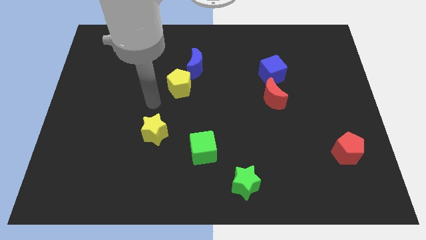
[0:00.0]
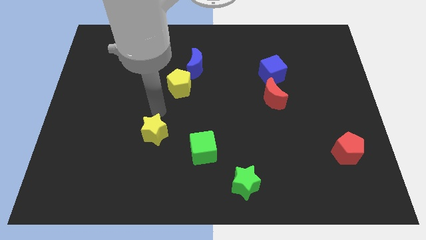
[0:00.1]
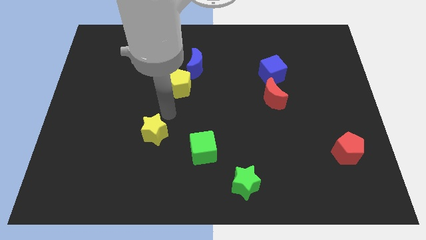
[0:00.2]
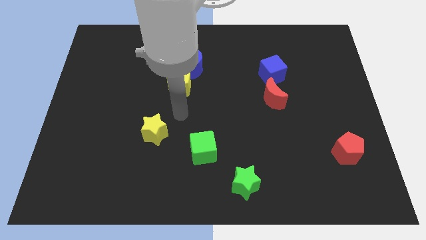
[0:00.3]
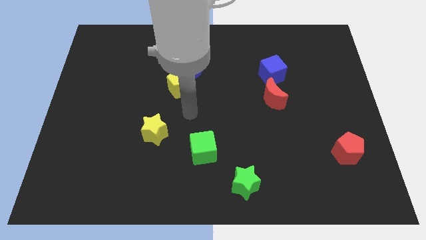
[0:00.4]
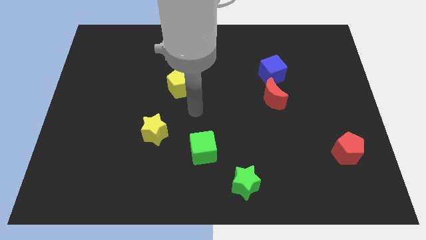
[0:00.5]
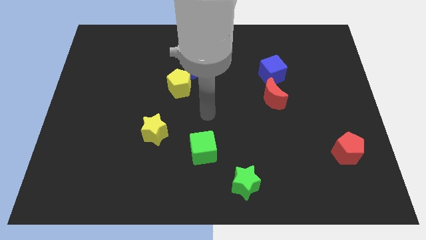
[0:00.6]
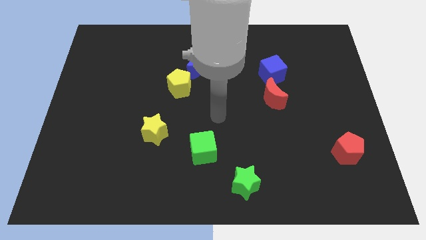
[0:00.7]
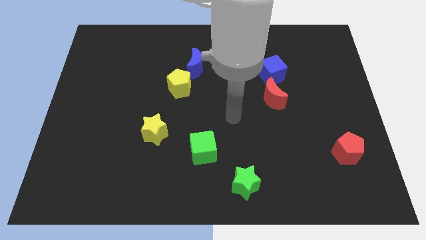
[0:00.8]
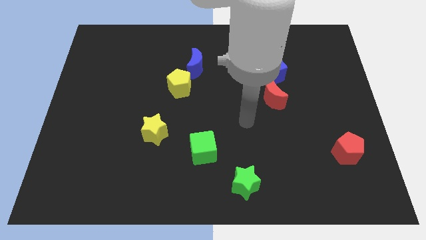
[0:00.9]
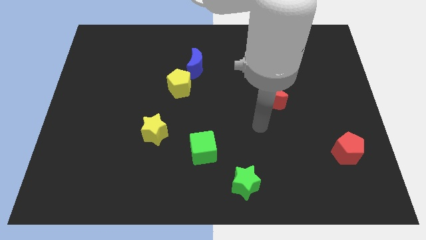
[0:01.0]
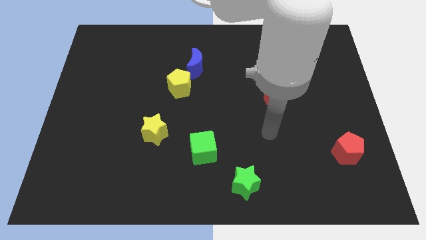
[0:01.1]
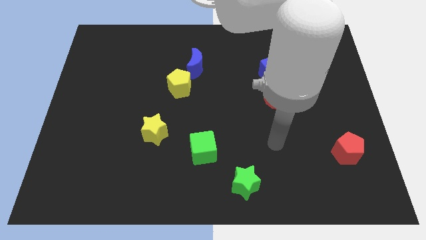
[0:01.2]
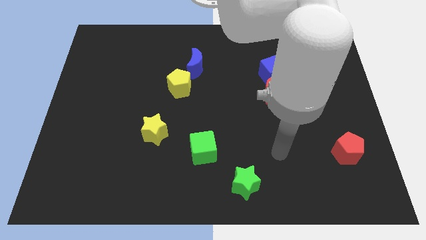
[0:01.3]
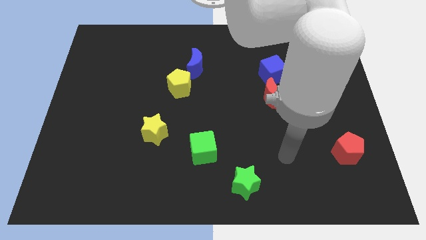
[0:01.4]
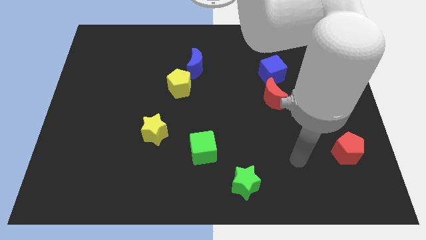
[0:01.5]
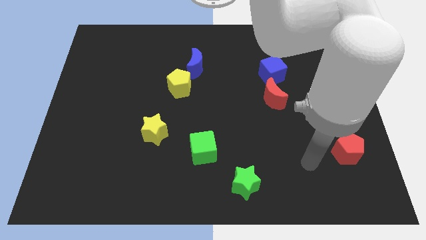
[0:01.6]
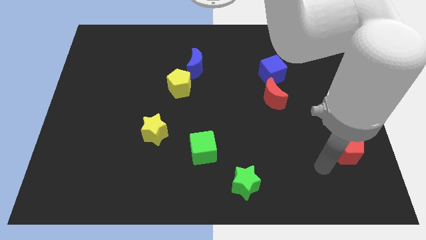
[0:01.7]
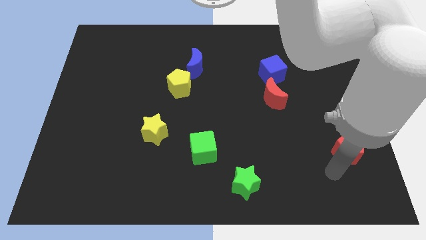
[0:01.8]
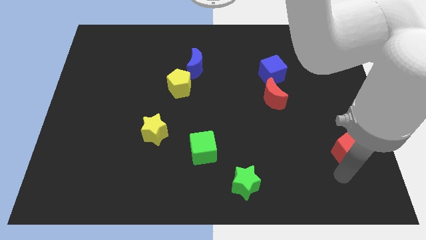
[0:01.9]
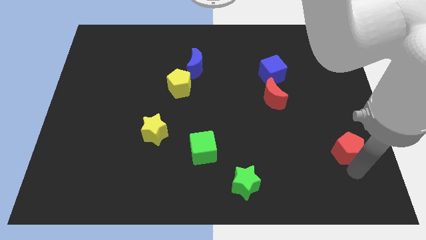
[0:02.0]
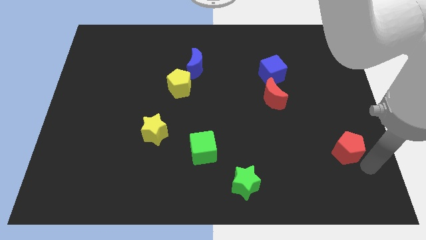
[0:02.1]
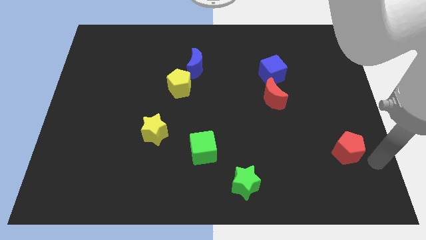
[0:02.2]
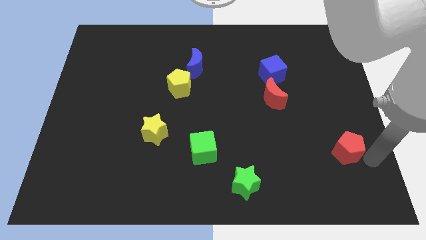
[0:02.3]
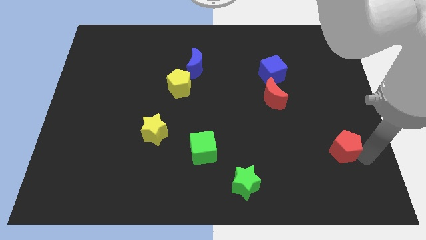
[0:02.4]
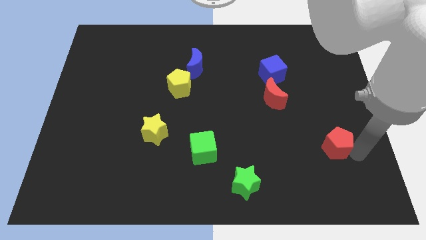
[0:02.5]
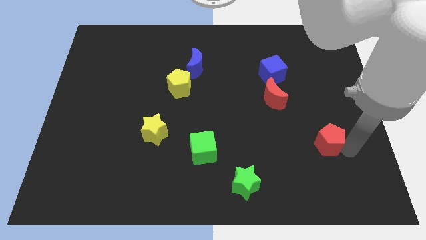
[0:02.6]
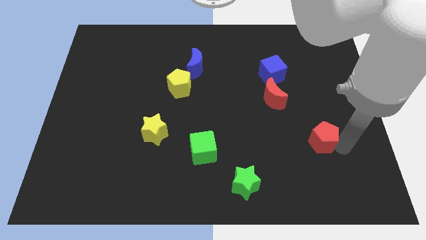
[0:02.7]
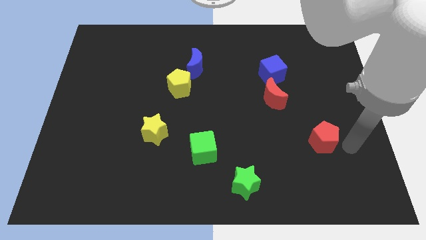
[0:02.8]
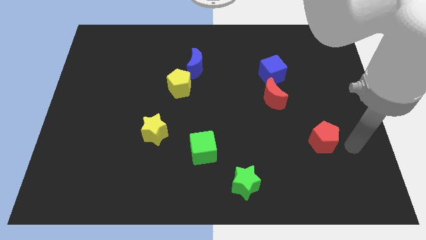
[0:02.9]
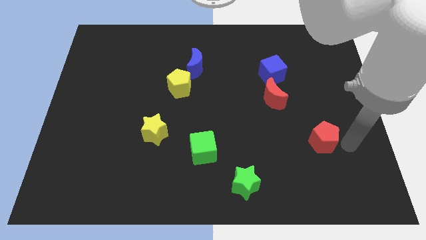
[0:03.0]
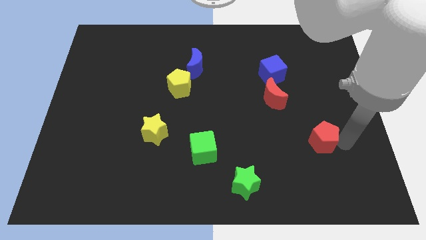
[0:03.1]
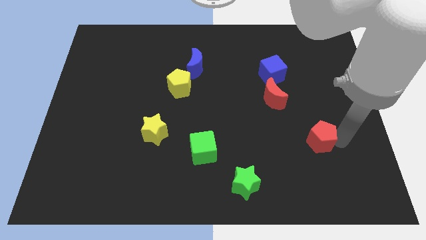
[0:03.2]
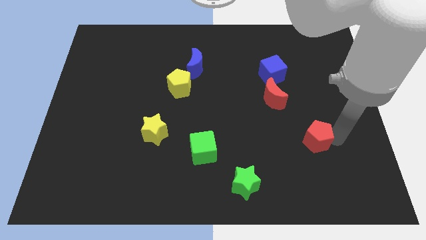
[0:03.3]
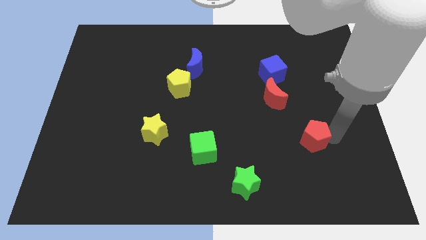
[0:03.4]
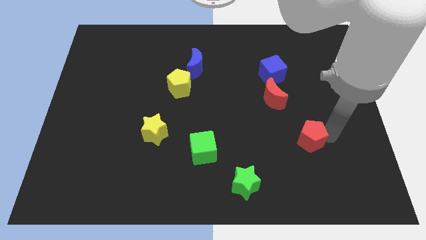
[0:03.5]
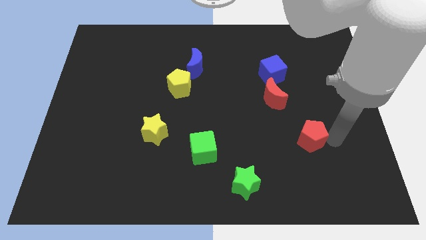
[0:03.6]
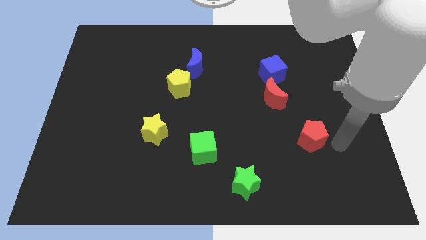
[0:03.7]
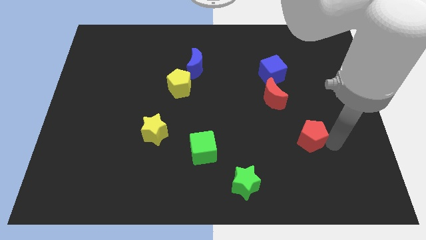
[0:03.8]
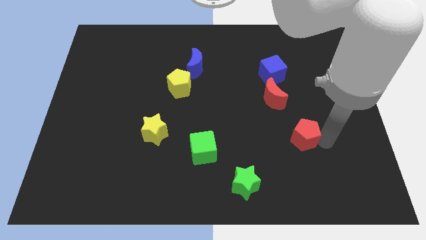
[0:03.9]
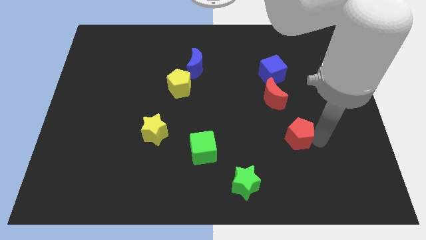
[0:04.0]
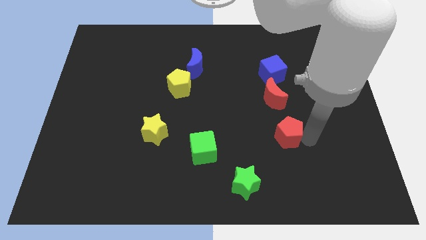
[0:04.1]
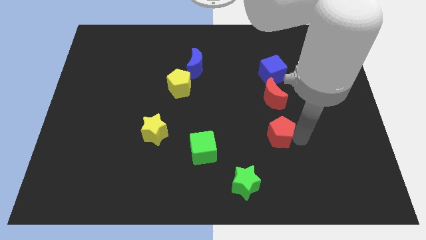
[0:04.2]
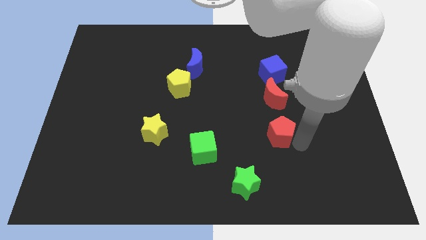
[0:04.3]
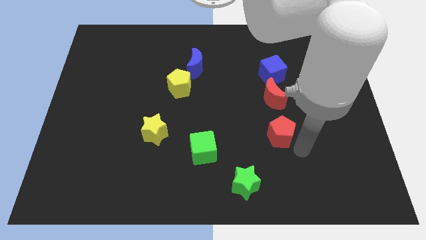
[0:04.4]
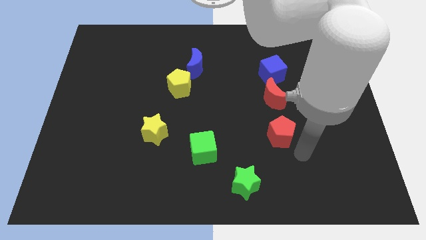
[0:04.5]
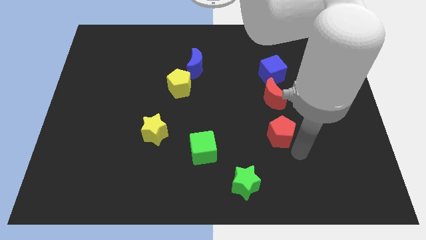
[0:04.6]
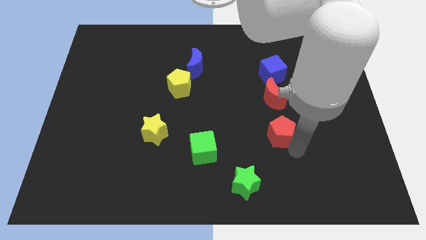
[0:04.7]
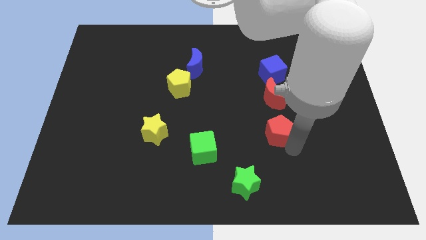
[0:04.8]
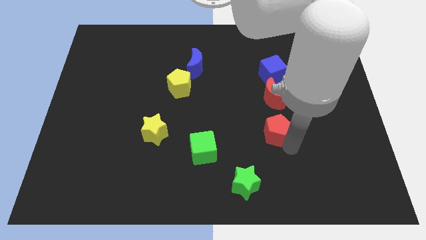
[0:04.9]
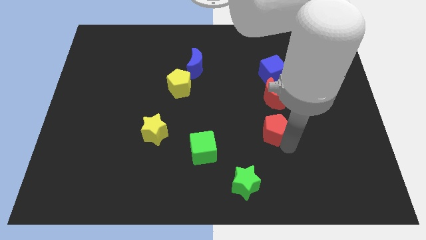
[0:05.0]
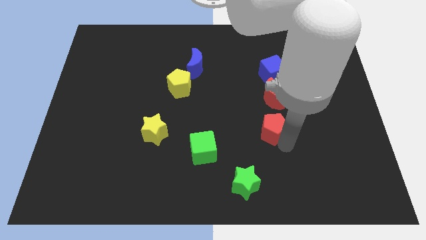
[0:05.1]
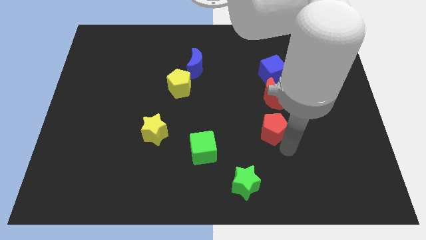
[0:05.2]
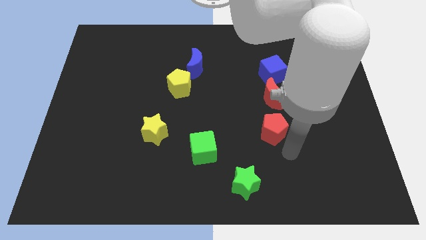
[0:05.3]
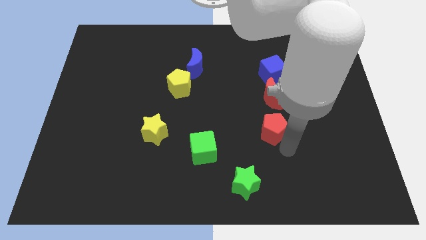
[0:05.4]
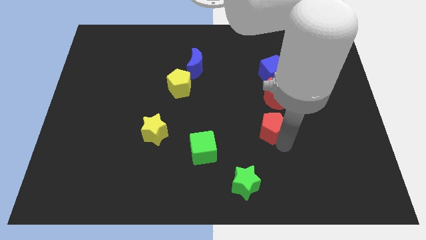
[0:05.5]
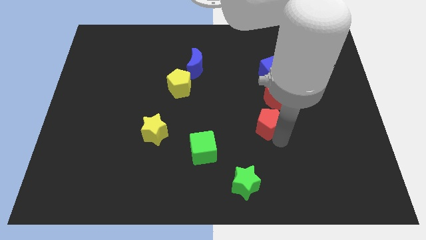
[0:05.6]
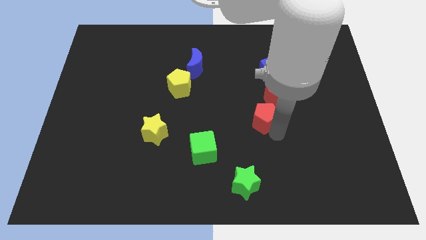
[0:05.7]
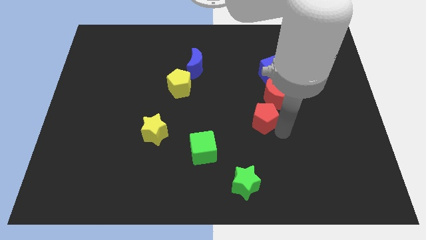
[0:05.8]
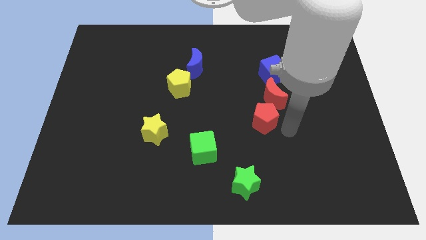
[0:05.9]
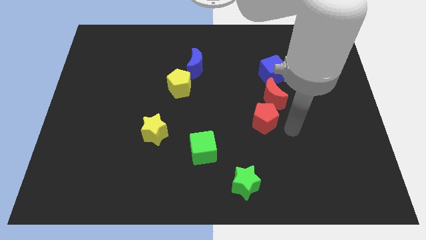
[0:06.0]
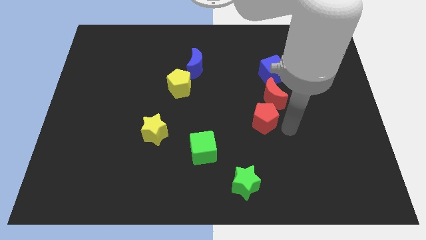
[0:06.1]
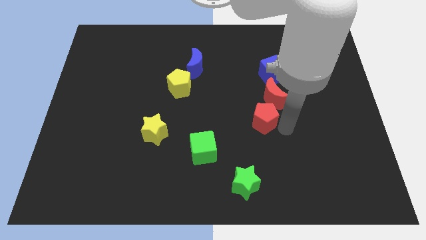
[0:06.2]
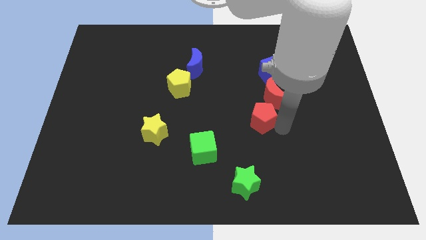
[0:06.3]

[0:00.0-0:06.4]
push the red pentagon to the center of the board
